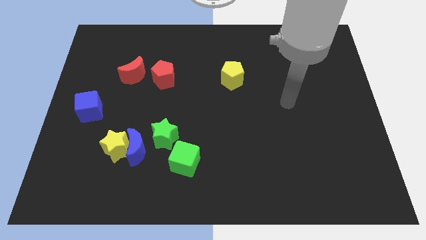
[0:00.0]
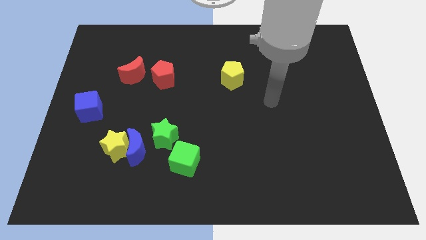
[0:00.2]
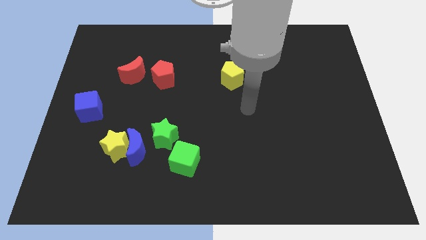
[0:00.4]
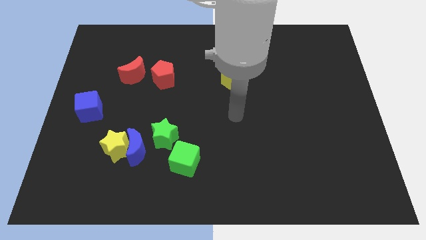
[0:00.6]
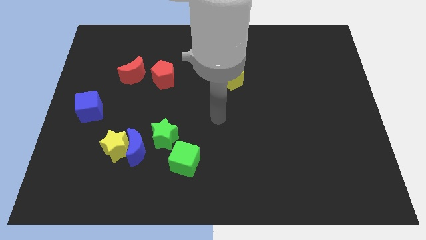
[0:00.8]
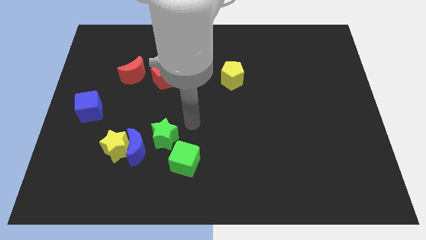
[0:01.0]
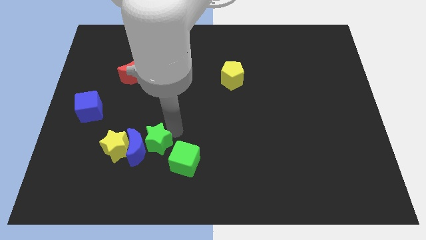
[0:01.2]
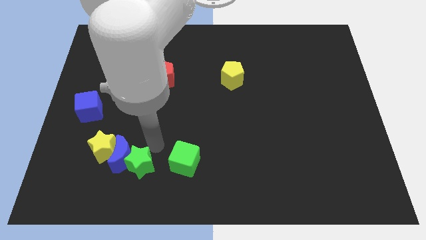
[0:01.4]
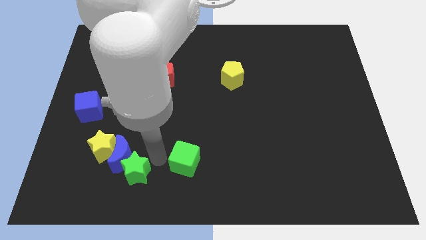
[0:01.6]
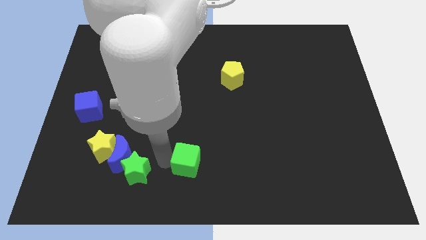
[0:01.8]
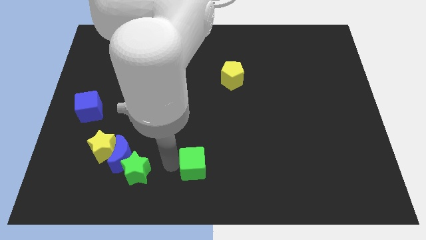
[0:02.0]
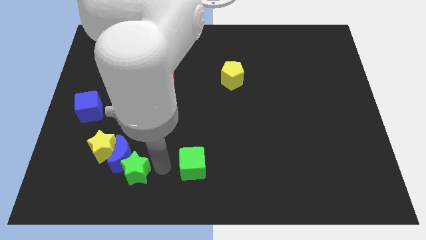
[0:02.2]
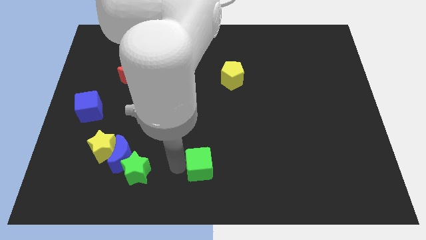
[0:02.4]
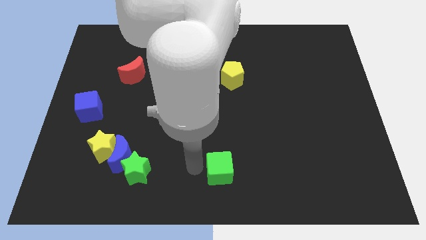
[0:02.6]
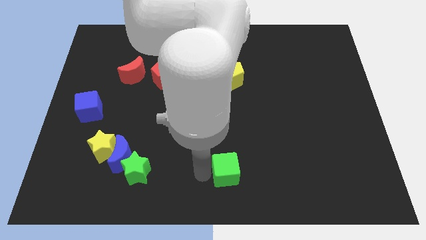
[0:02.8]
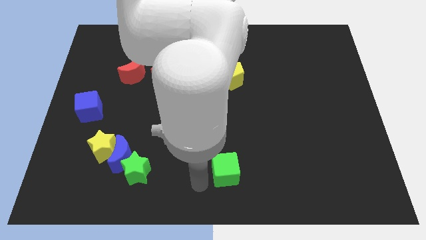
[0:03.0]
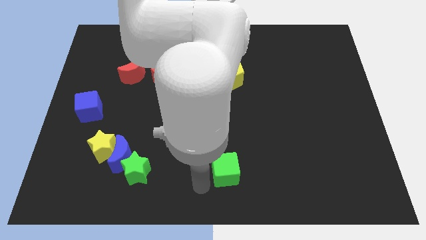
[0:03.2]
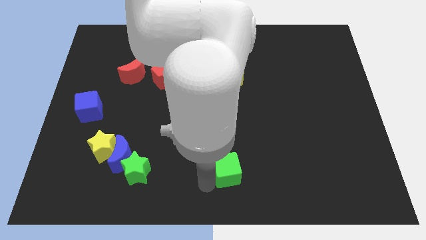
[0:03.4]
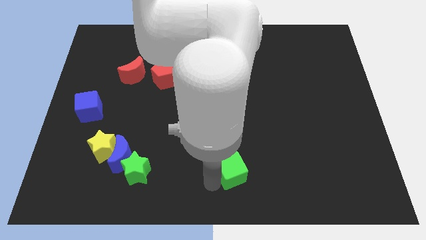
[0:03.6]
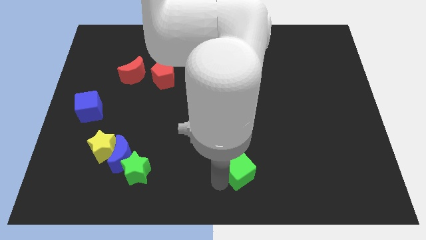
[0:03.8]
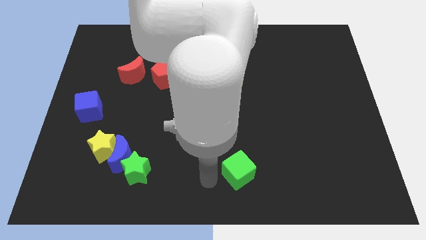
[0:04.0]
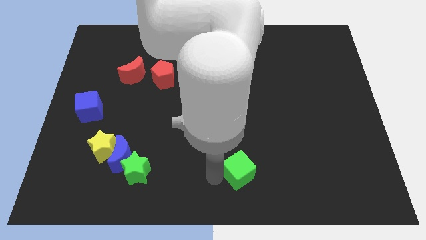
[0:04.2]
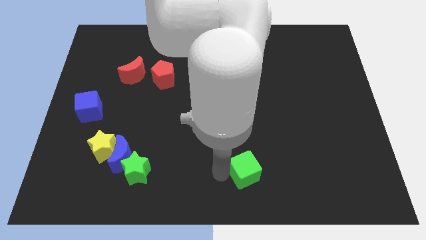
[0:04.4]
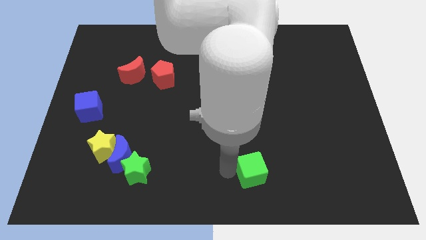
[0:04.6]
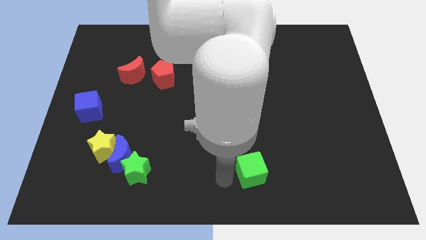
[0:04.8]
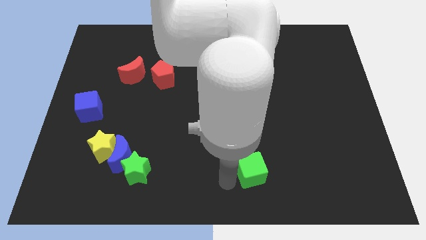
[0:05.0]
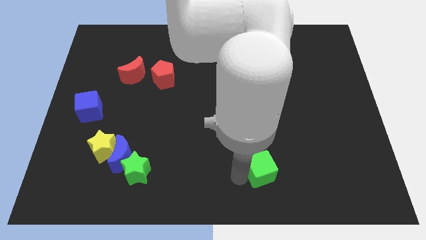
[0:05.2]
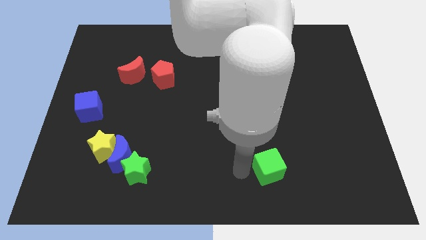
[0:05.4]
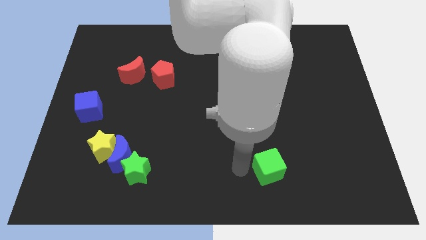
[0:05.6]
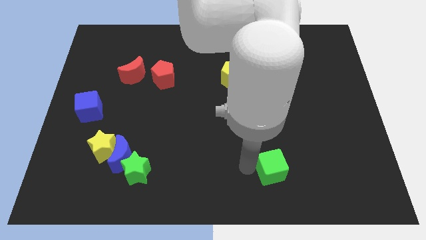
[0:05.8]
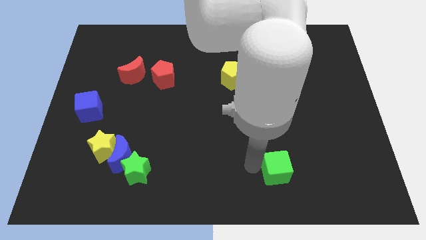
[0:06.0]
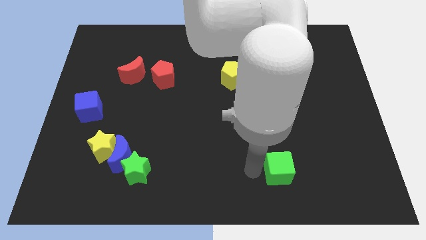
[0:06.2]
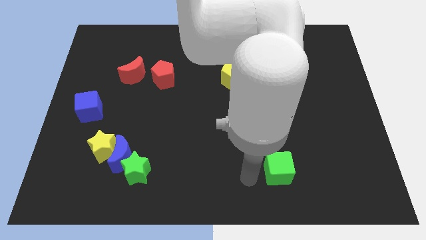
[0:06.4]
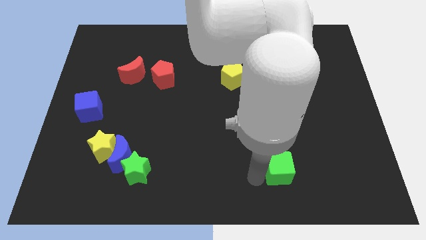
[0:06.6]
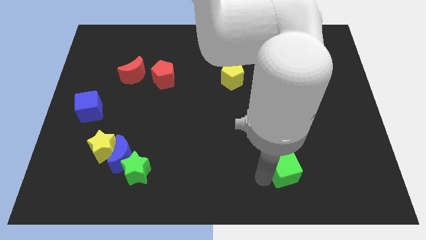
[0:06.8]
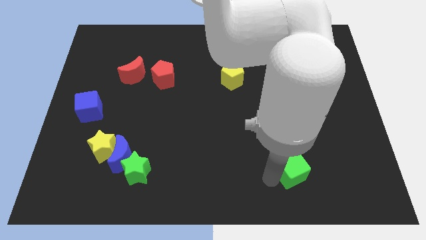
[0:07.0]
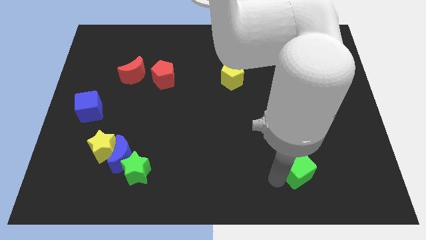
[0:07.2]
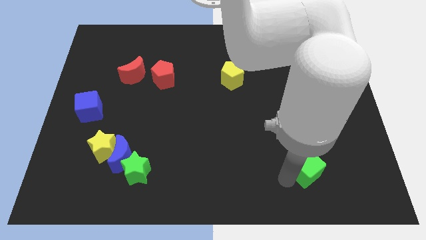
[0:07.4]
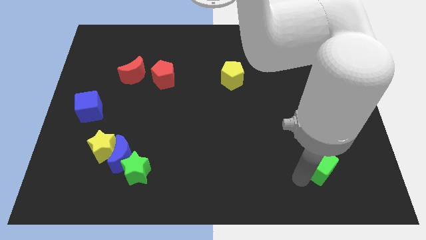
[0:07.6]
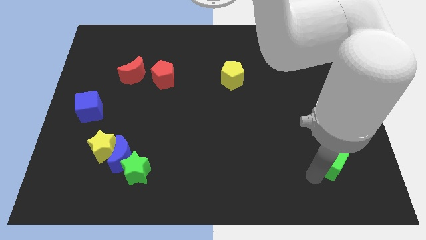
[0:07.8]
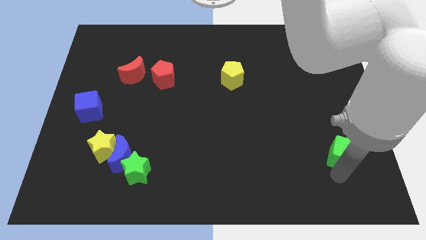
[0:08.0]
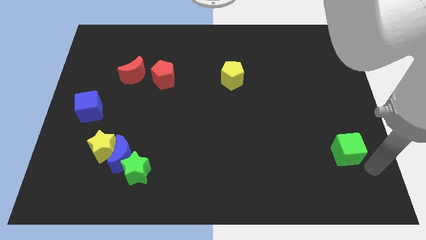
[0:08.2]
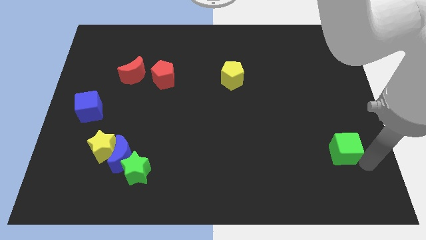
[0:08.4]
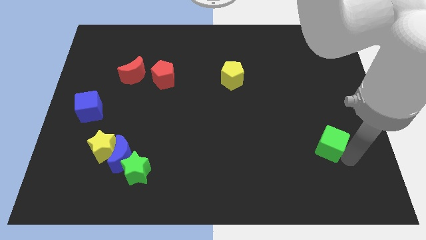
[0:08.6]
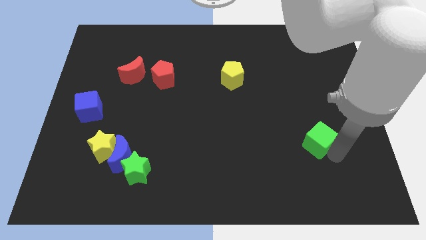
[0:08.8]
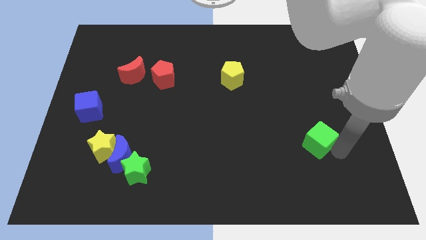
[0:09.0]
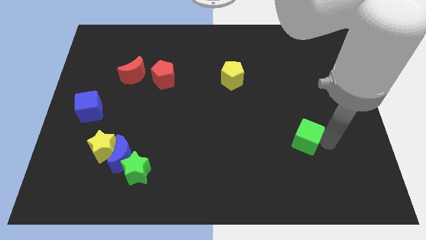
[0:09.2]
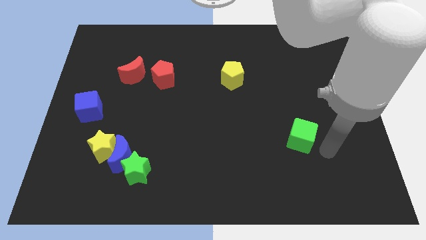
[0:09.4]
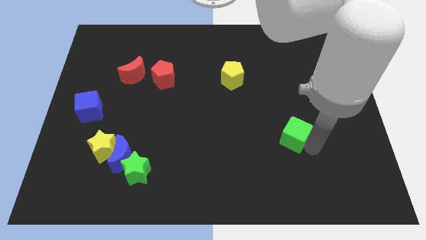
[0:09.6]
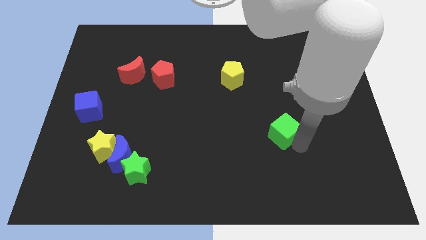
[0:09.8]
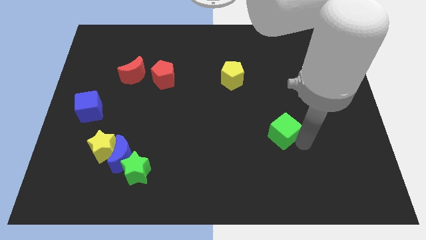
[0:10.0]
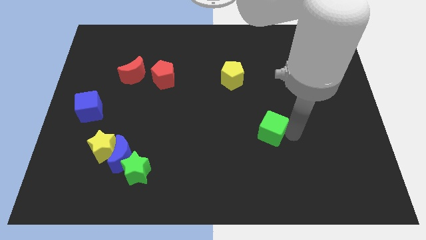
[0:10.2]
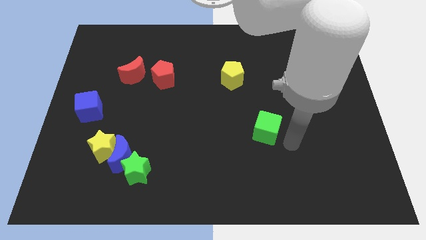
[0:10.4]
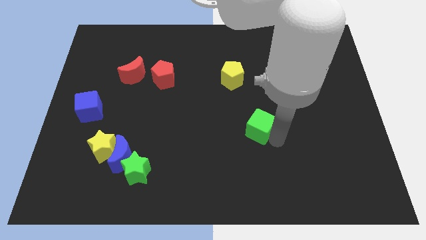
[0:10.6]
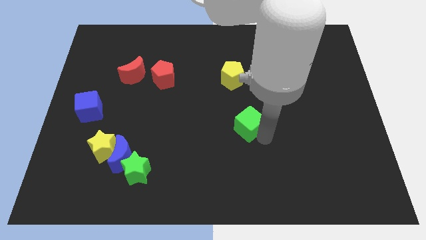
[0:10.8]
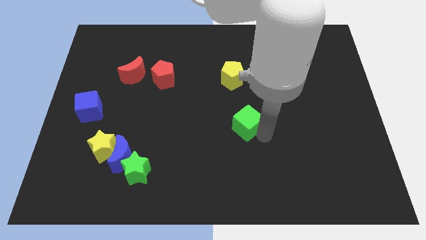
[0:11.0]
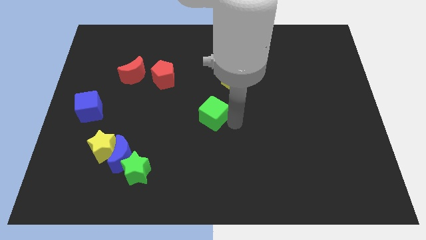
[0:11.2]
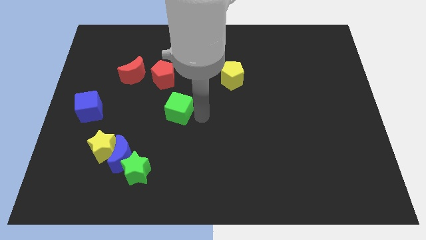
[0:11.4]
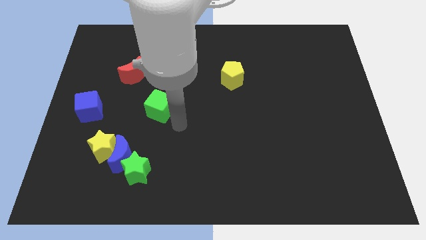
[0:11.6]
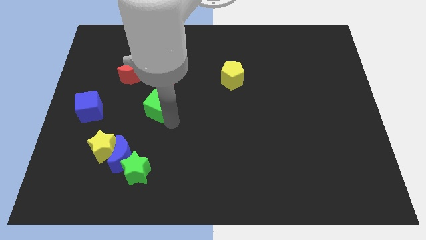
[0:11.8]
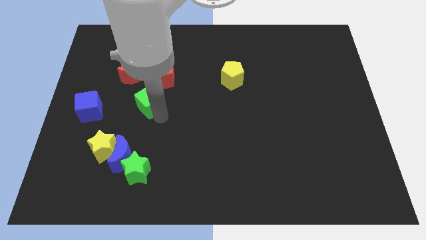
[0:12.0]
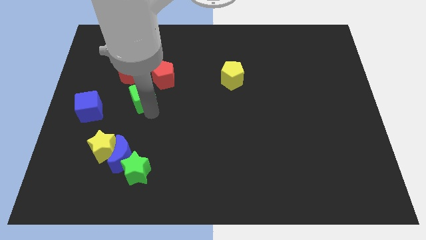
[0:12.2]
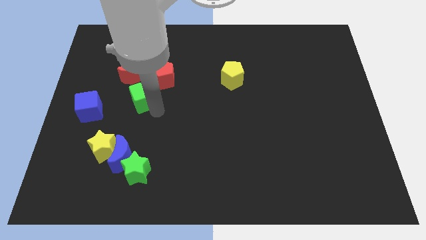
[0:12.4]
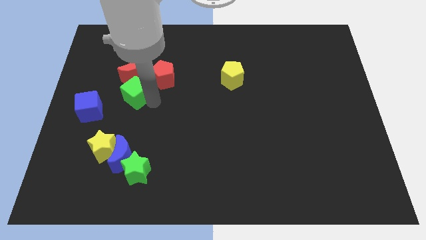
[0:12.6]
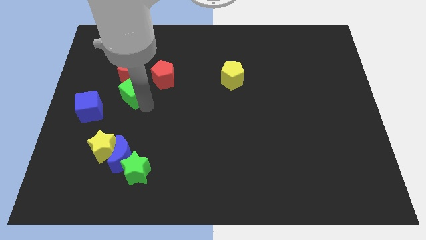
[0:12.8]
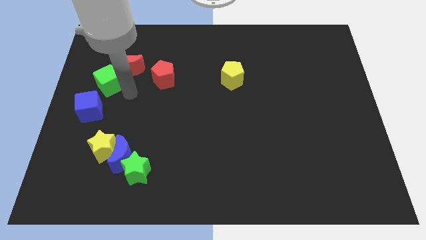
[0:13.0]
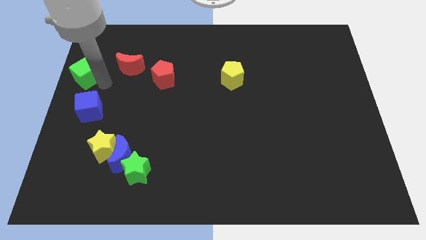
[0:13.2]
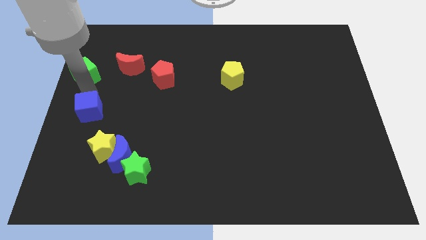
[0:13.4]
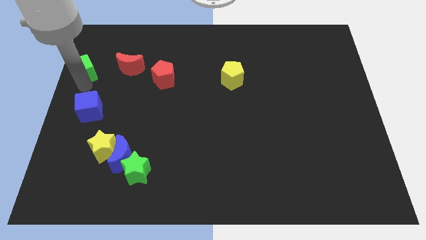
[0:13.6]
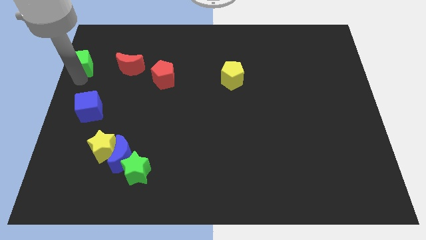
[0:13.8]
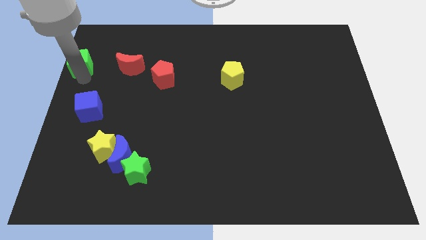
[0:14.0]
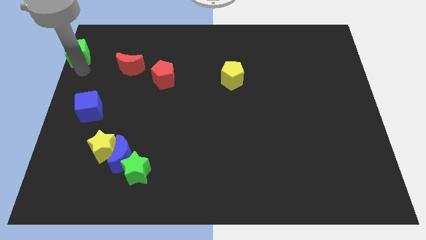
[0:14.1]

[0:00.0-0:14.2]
move the green cube to the top left corner

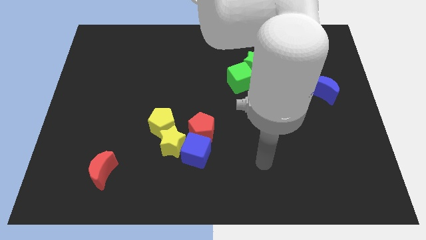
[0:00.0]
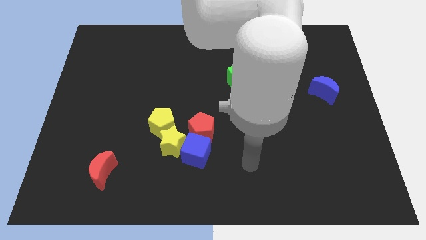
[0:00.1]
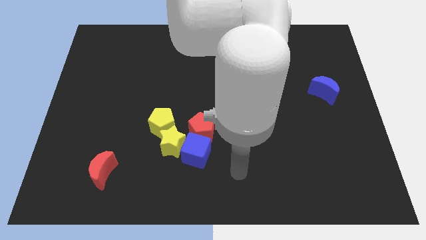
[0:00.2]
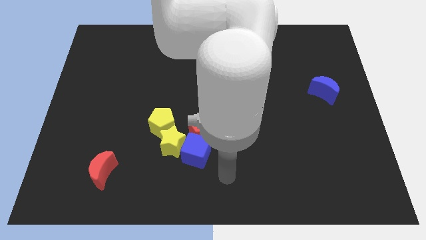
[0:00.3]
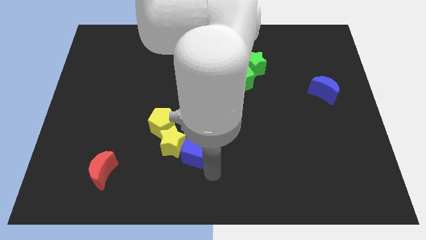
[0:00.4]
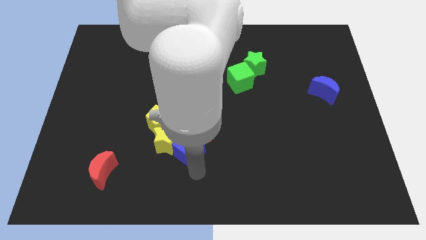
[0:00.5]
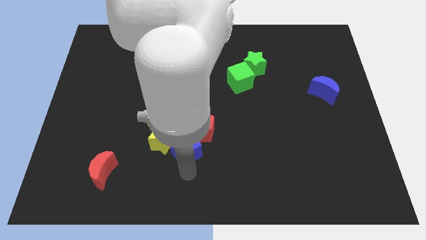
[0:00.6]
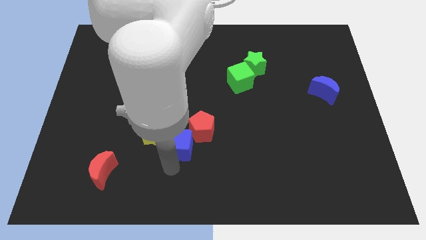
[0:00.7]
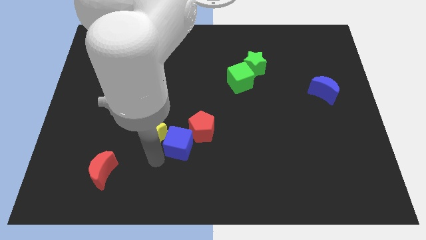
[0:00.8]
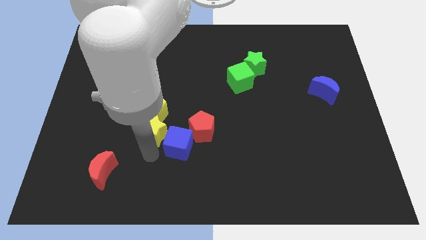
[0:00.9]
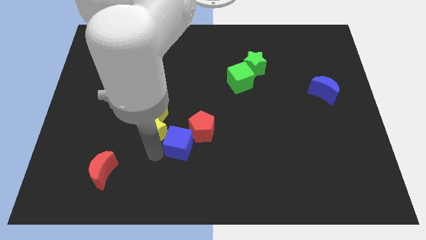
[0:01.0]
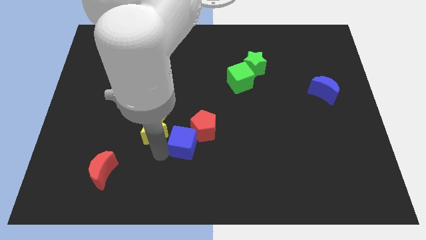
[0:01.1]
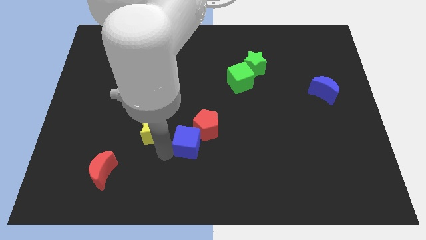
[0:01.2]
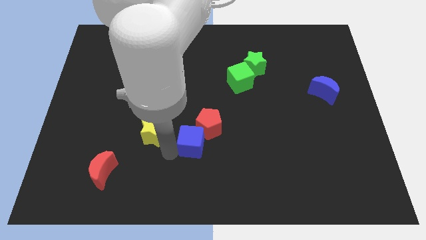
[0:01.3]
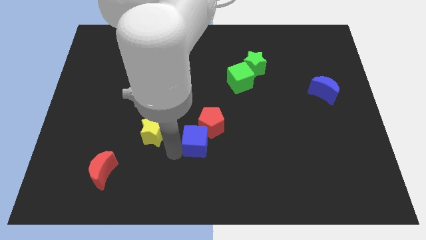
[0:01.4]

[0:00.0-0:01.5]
slide the blue cube to the middle of the board
